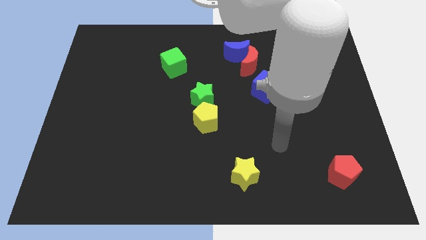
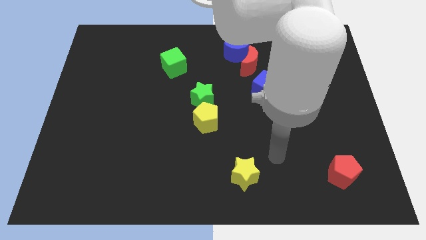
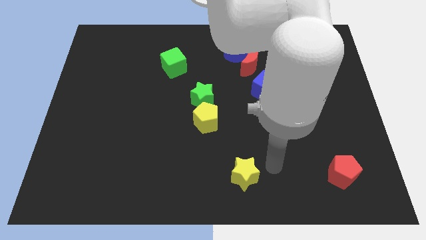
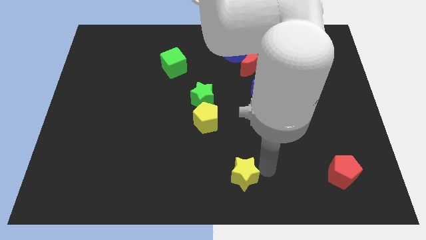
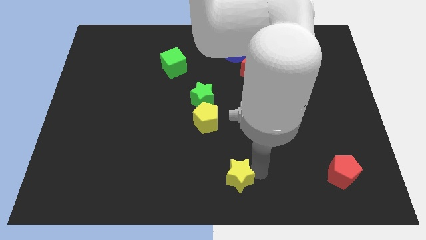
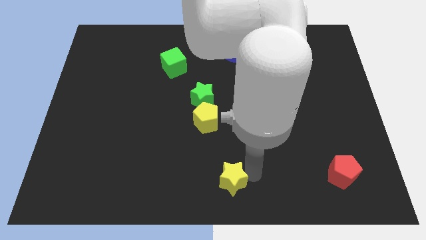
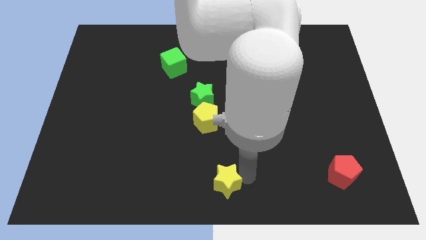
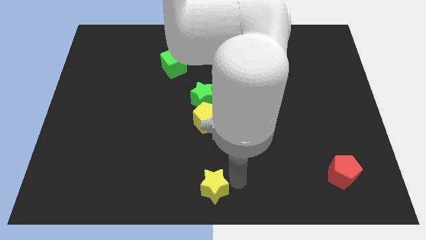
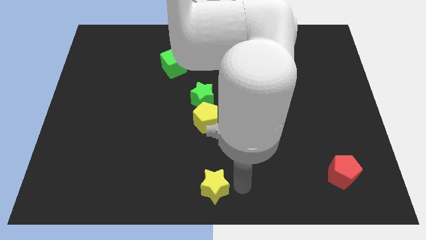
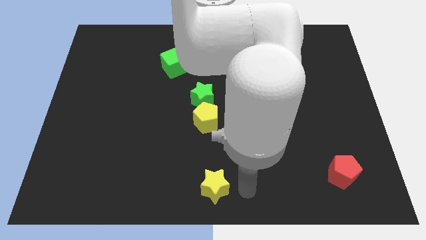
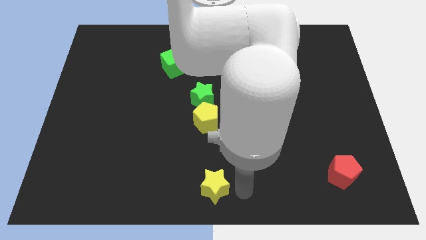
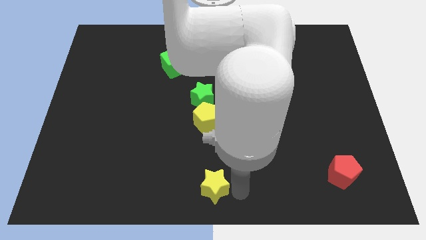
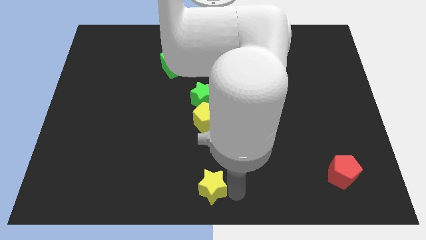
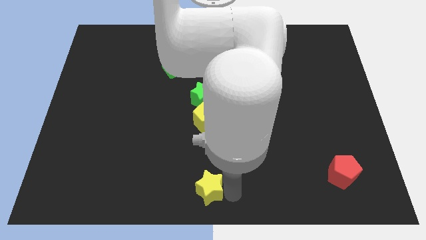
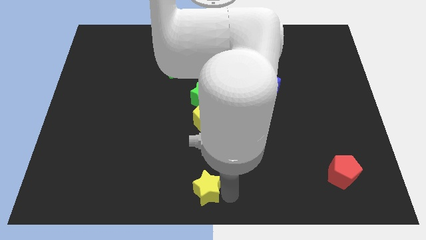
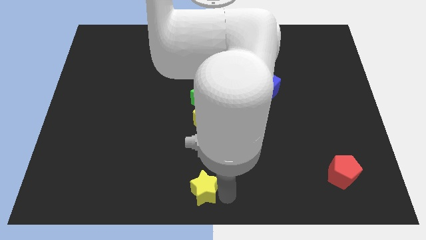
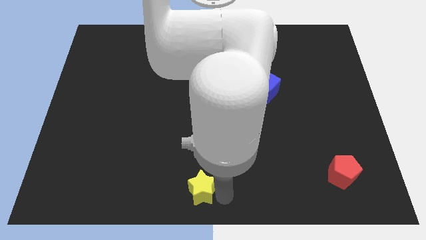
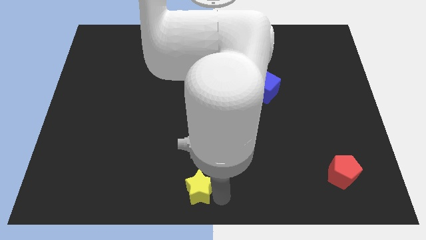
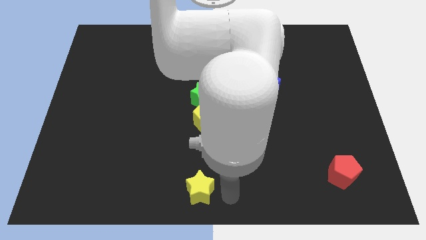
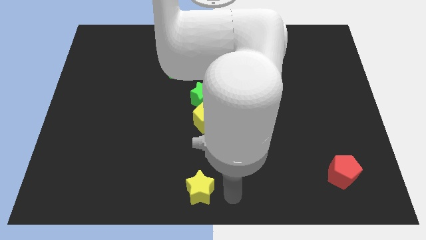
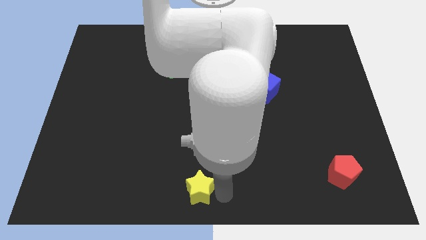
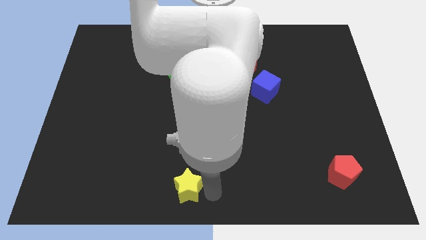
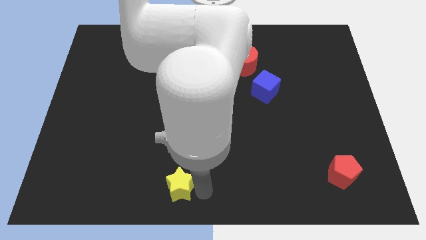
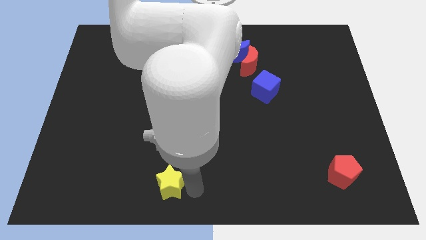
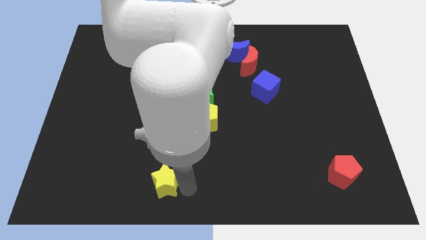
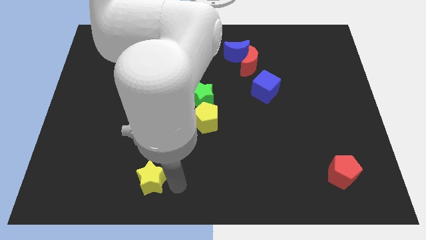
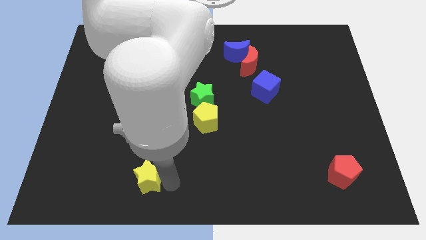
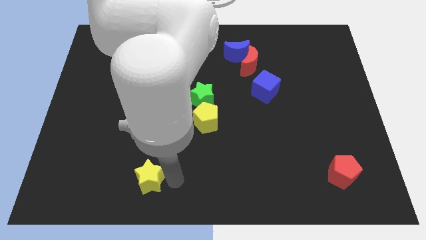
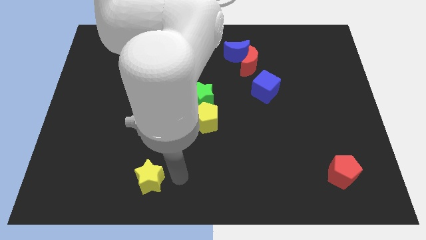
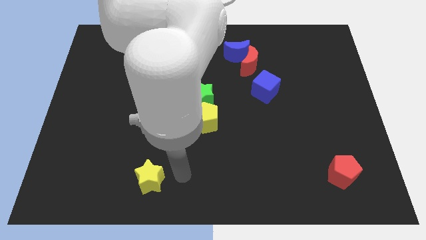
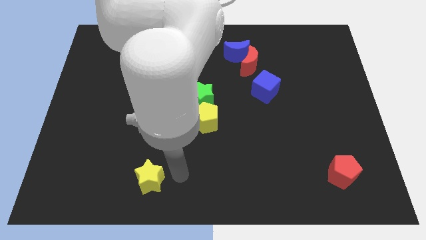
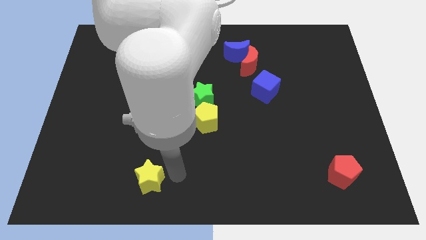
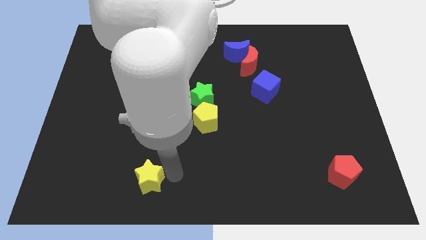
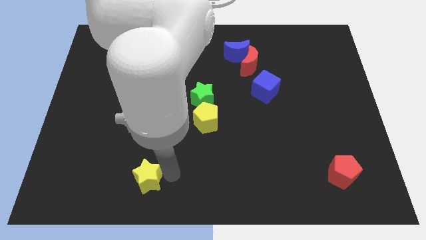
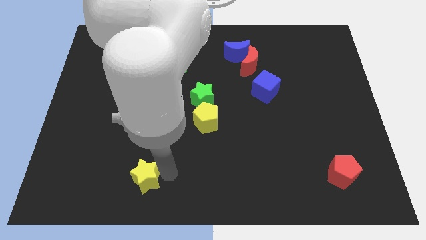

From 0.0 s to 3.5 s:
slide the yellow star left

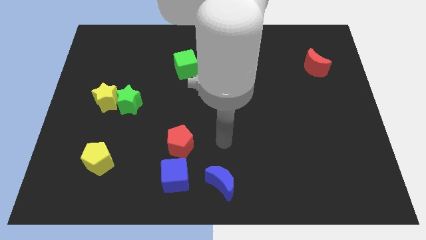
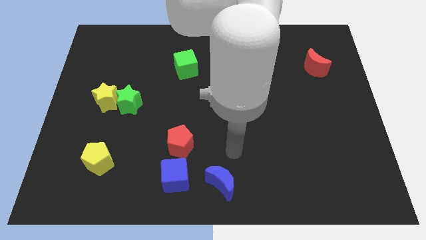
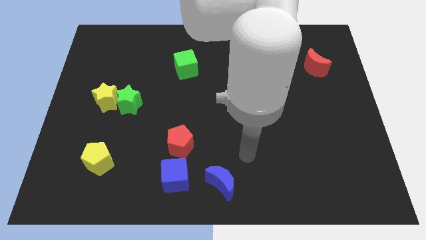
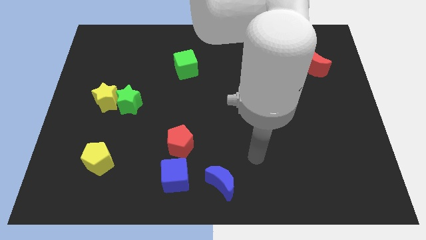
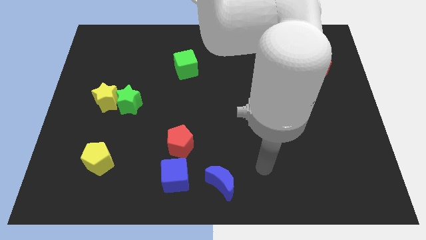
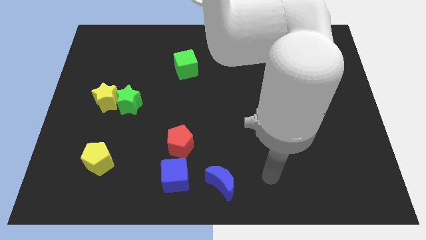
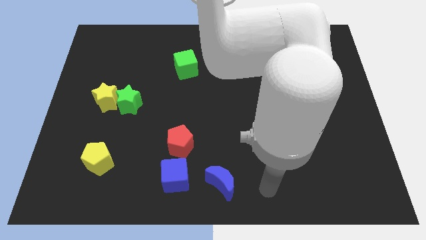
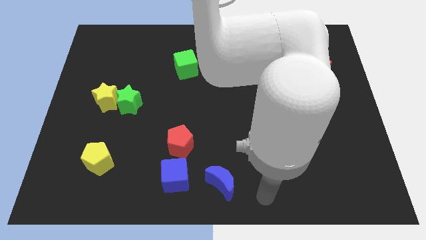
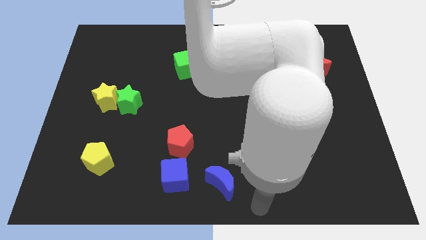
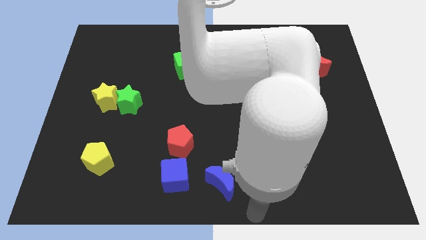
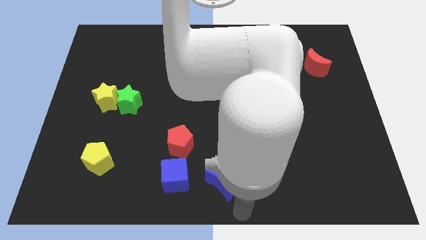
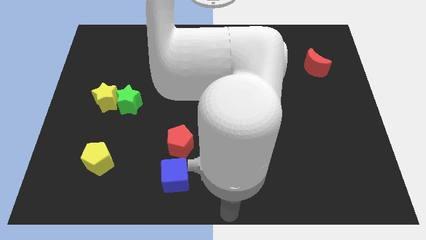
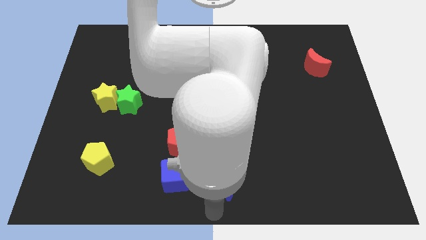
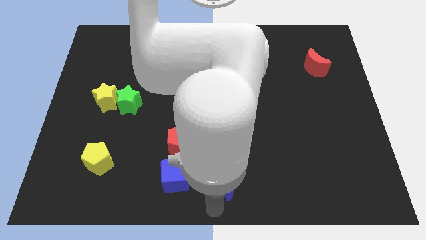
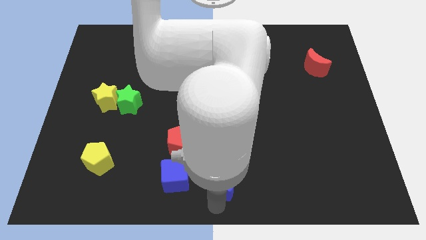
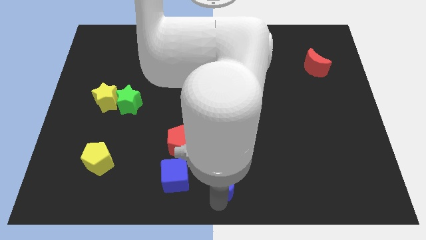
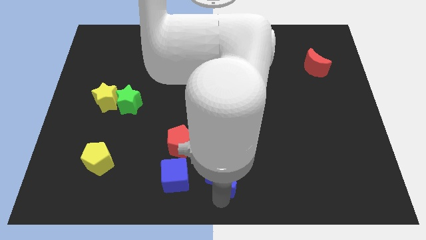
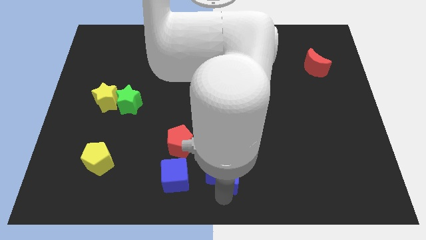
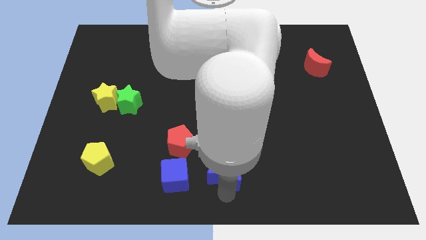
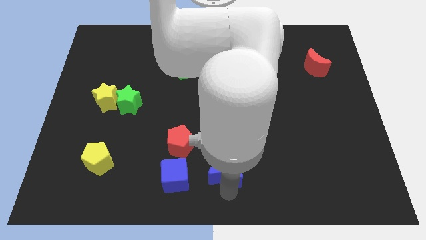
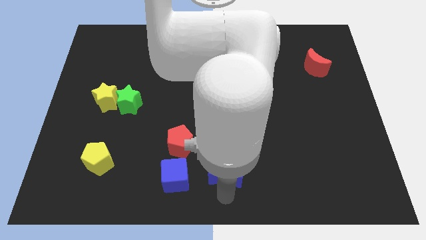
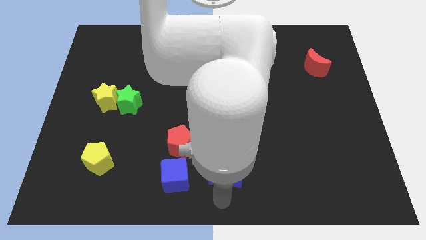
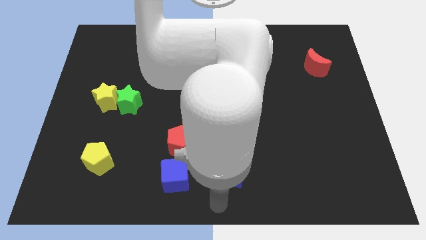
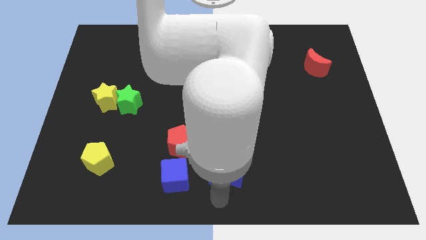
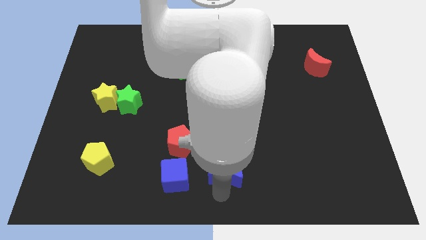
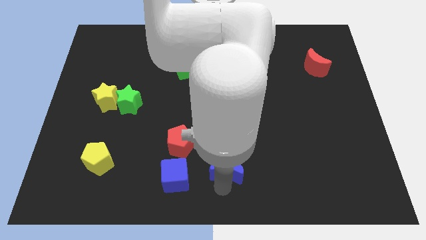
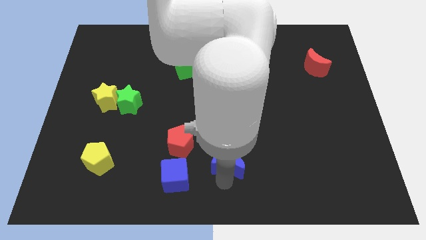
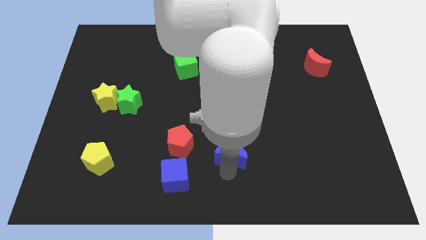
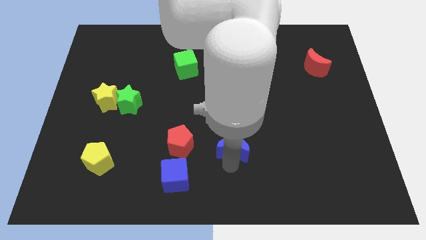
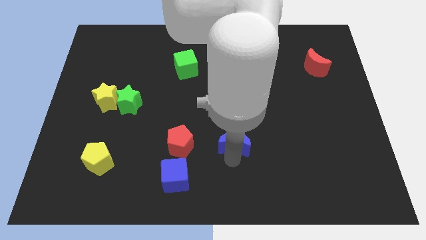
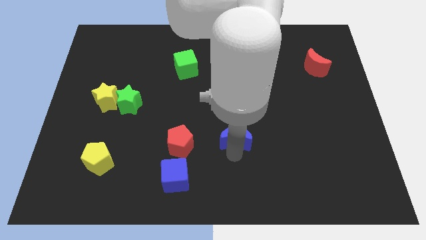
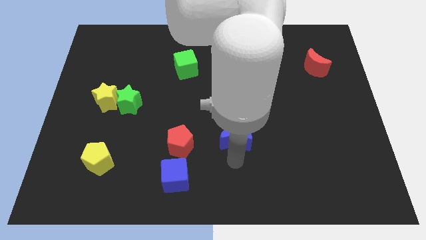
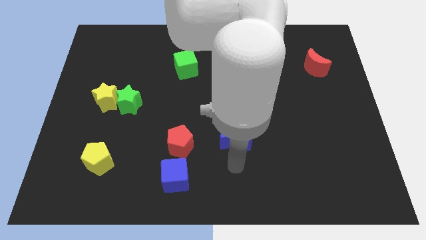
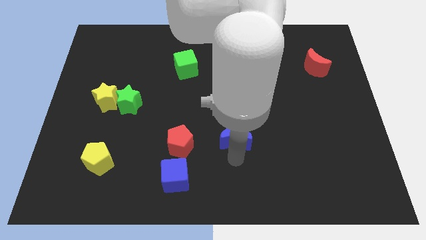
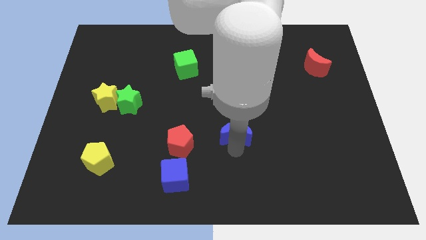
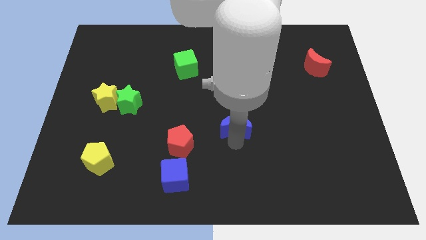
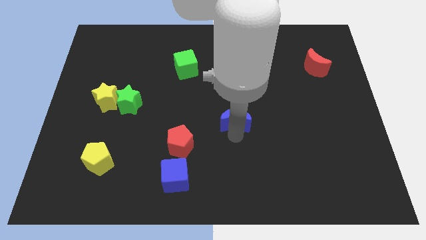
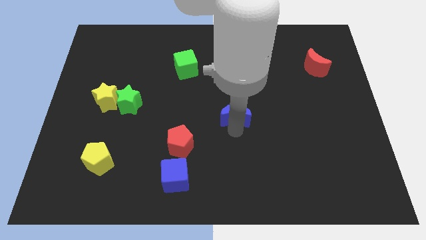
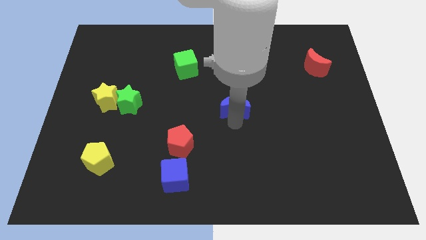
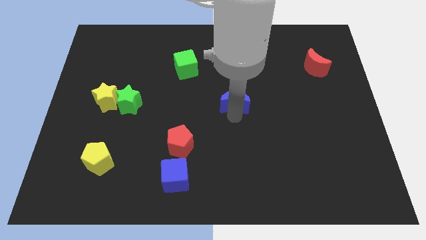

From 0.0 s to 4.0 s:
slide the blue moon up

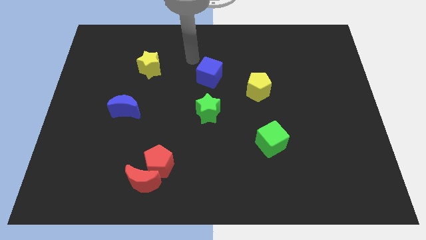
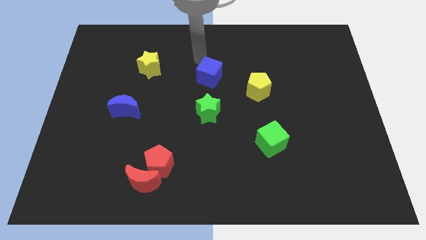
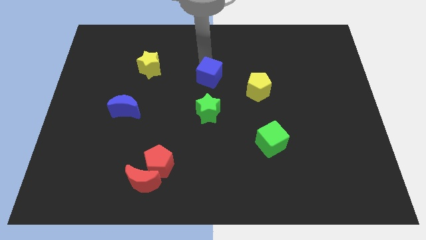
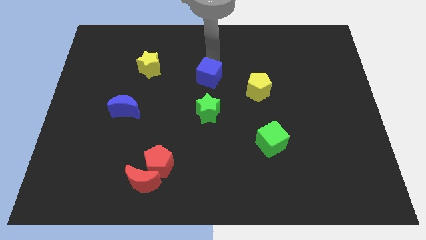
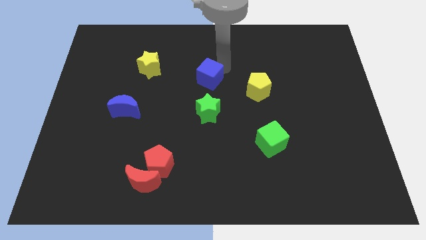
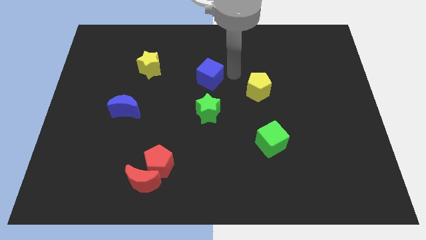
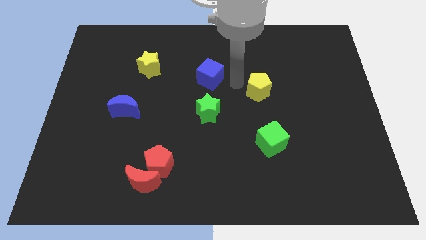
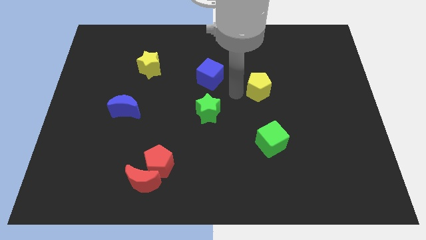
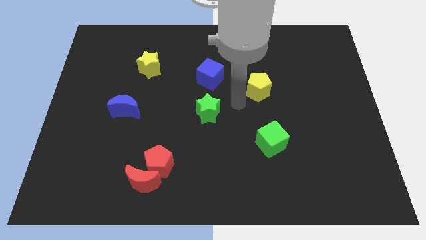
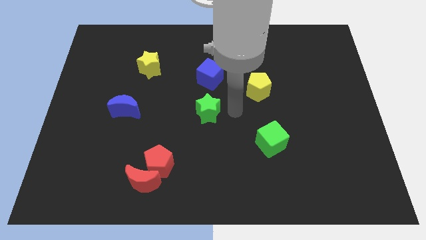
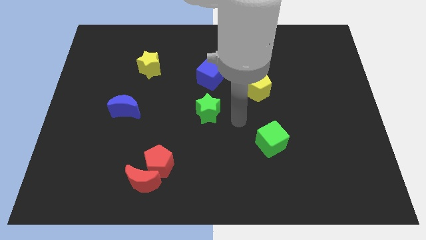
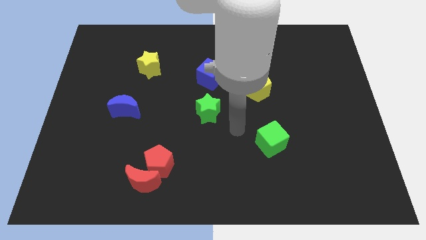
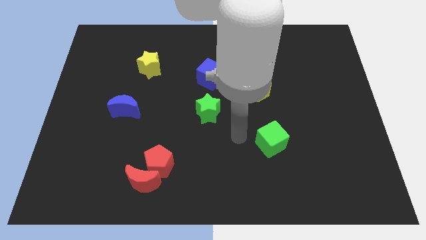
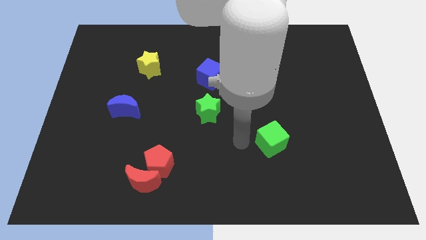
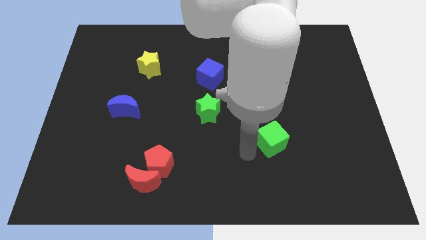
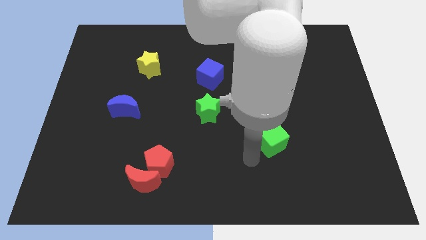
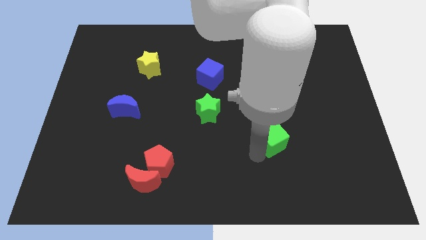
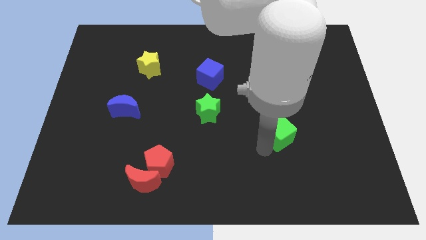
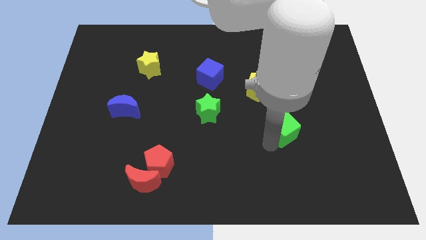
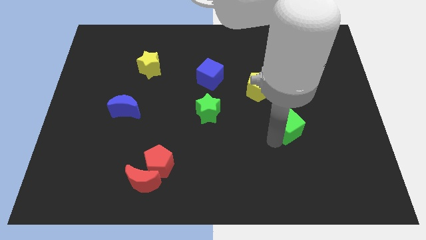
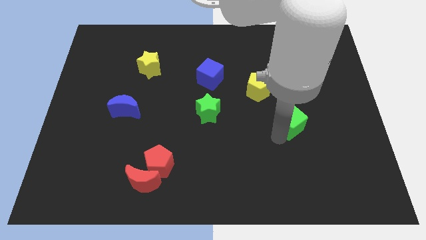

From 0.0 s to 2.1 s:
slightly slide the green cube upwards and right diagonally
